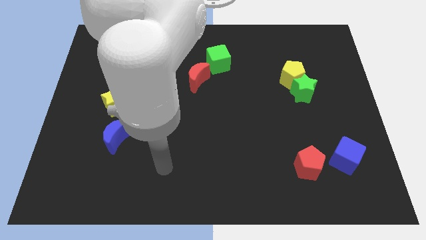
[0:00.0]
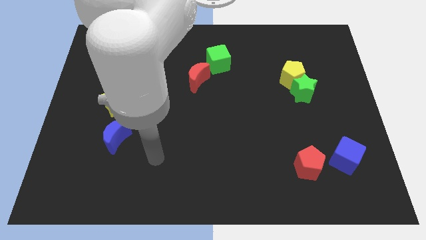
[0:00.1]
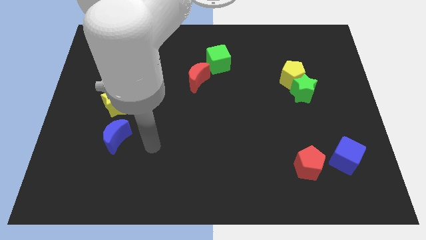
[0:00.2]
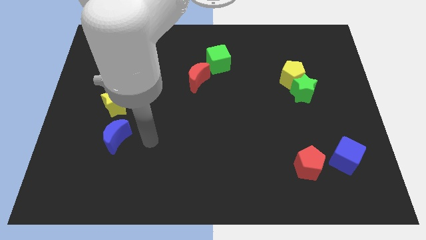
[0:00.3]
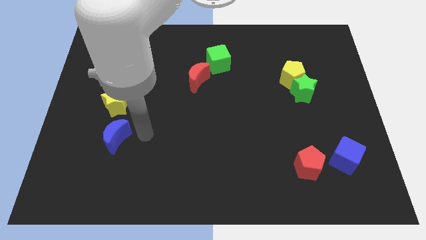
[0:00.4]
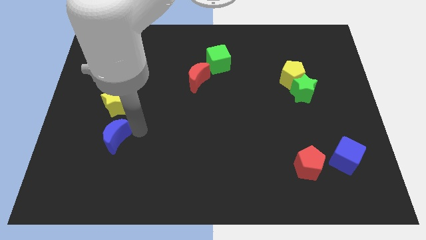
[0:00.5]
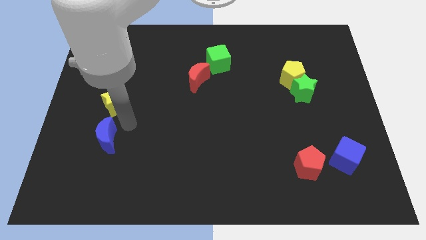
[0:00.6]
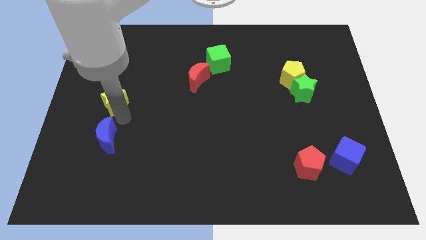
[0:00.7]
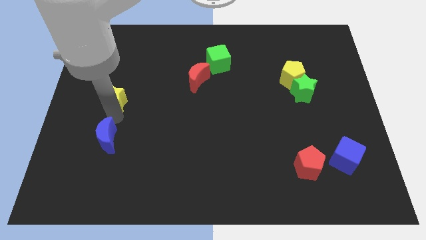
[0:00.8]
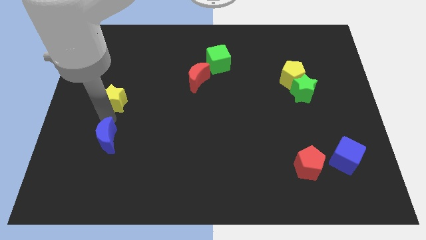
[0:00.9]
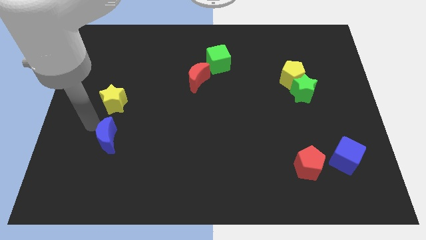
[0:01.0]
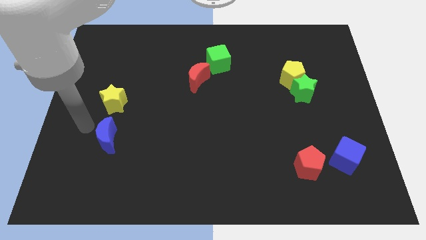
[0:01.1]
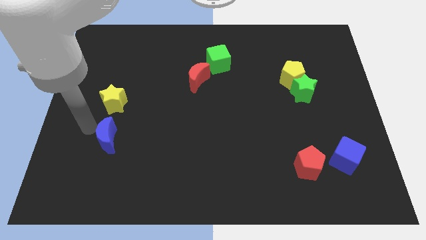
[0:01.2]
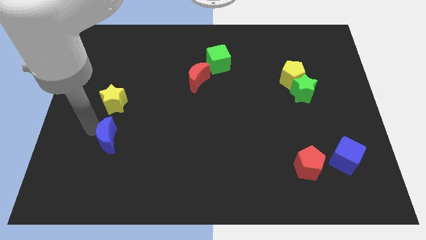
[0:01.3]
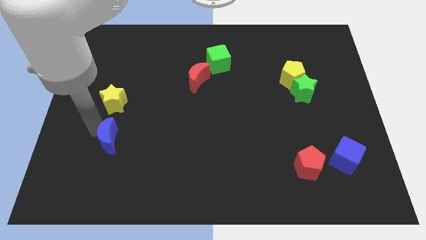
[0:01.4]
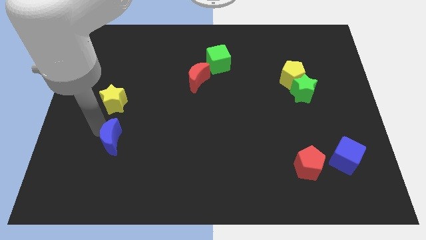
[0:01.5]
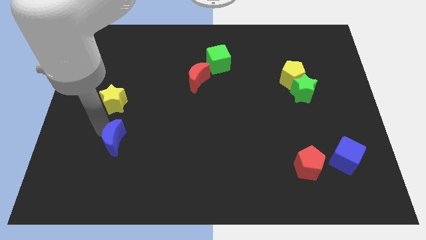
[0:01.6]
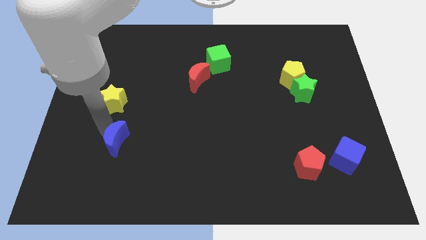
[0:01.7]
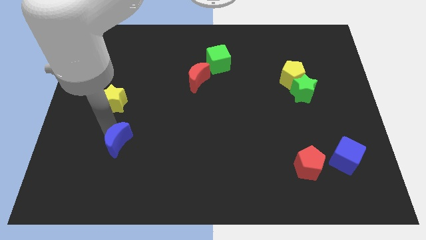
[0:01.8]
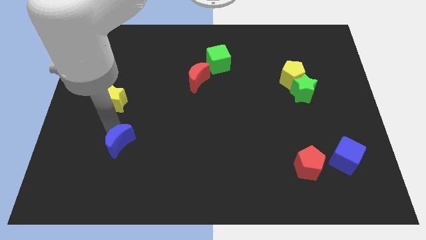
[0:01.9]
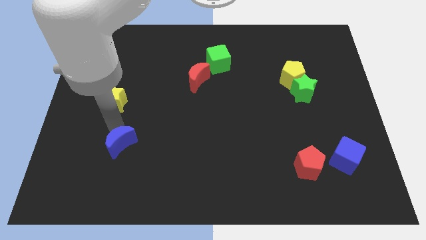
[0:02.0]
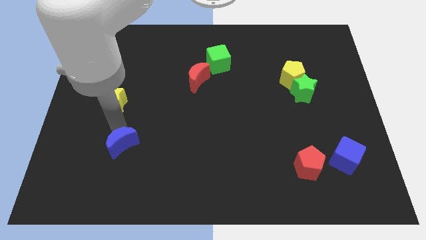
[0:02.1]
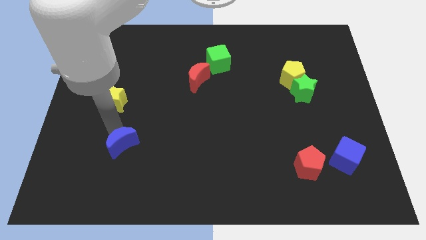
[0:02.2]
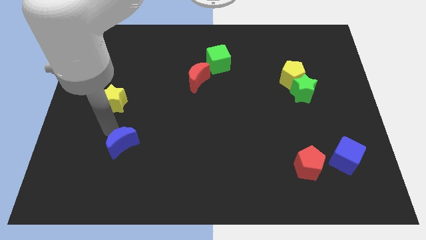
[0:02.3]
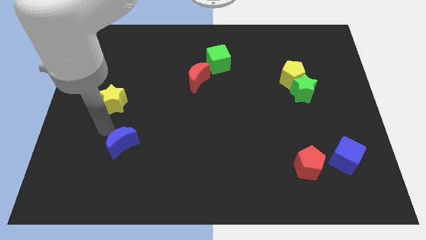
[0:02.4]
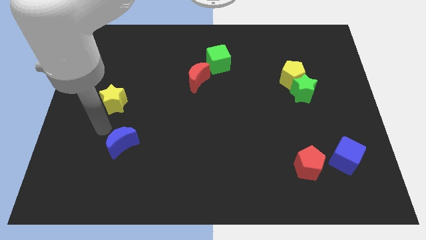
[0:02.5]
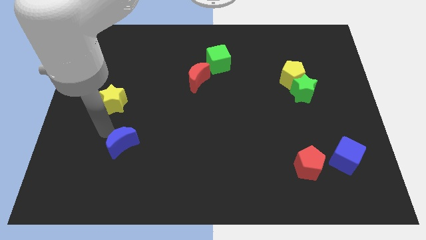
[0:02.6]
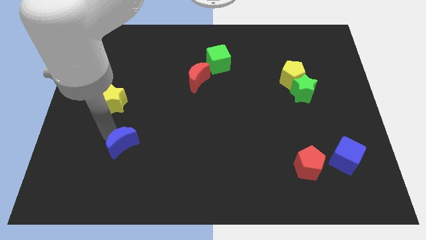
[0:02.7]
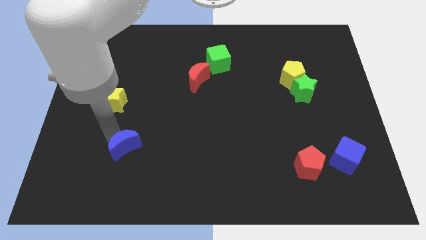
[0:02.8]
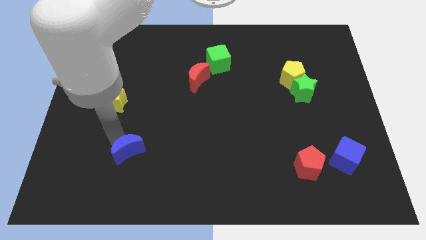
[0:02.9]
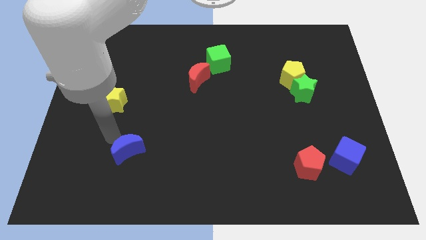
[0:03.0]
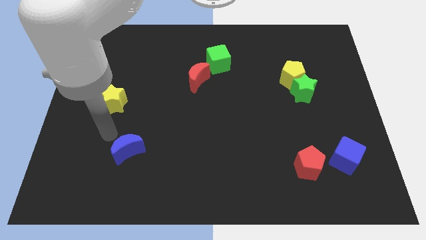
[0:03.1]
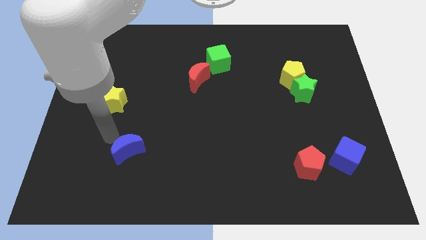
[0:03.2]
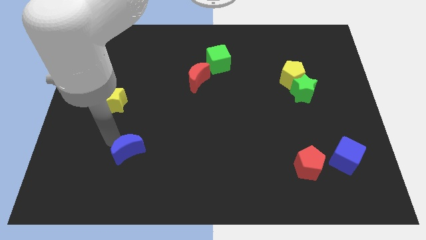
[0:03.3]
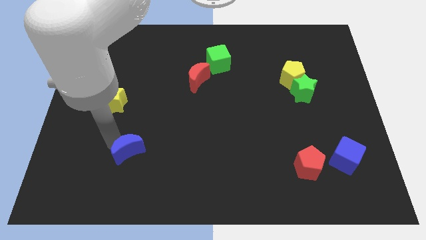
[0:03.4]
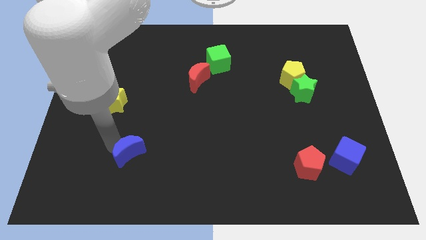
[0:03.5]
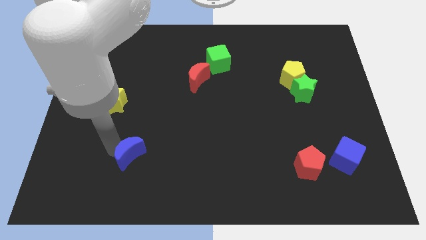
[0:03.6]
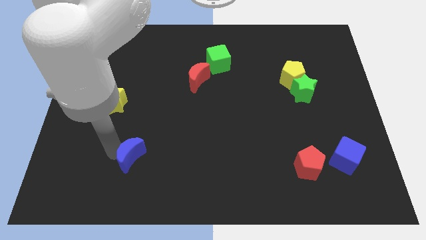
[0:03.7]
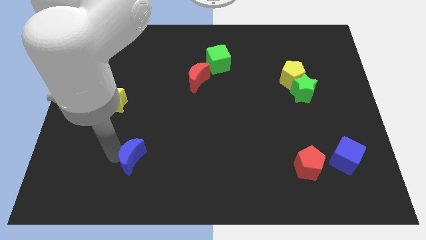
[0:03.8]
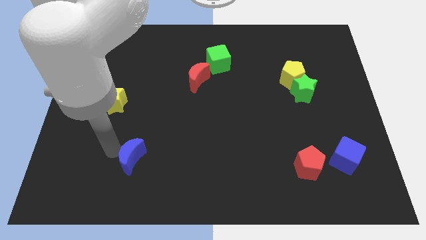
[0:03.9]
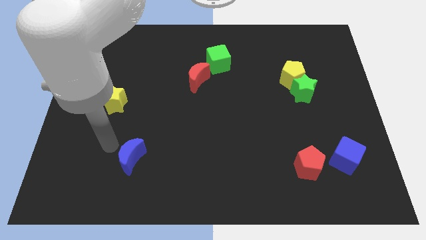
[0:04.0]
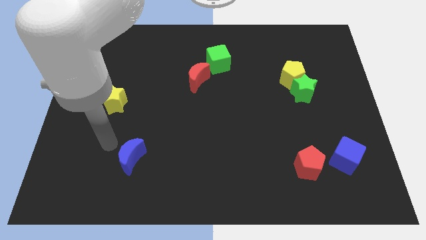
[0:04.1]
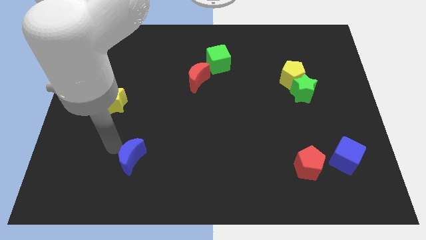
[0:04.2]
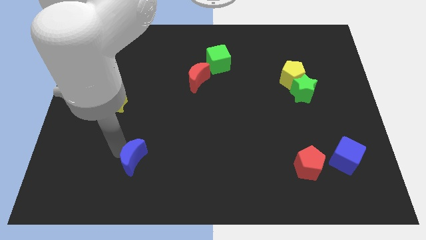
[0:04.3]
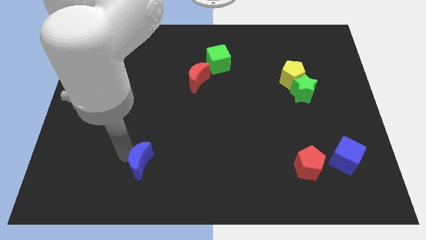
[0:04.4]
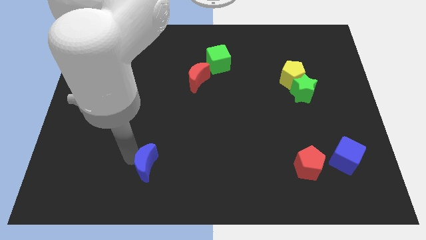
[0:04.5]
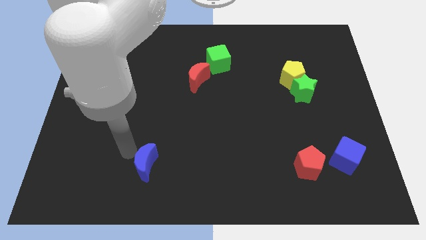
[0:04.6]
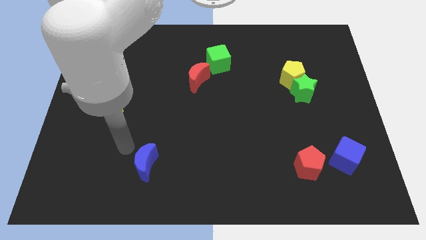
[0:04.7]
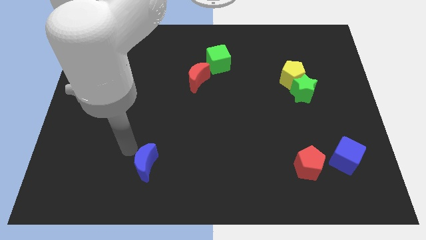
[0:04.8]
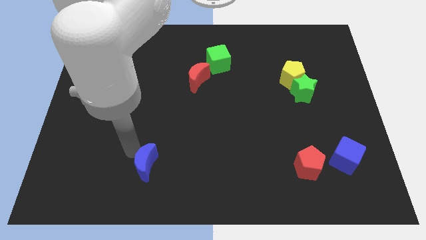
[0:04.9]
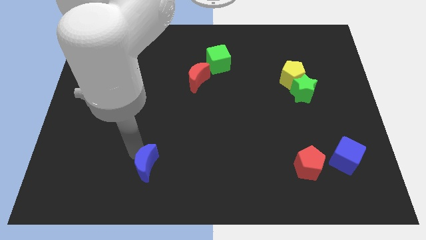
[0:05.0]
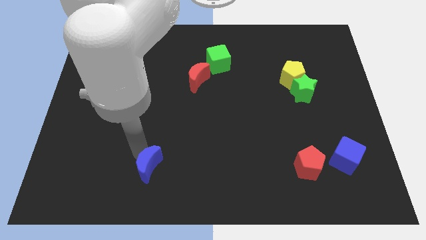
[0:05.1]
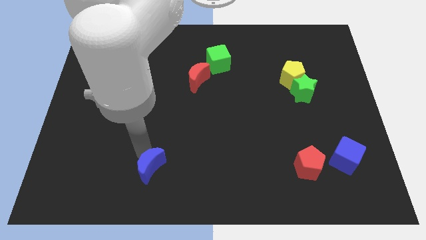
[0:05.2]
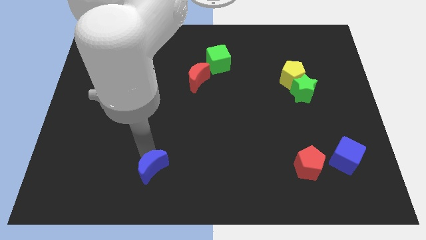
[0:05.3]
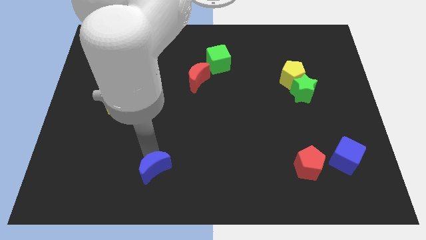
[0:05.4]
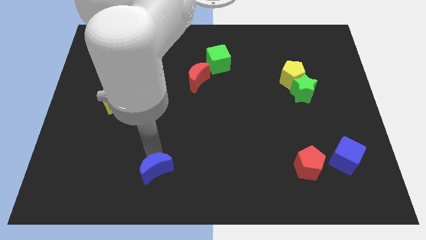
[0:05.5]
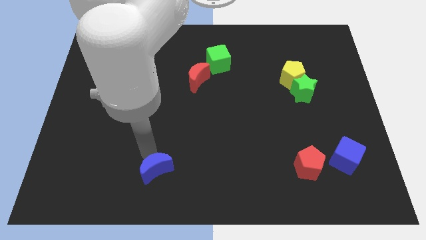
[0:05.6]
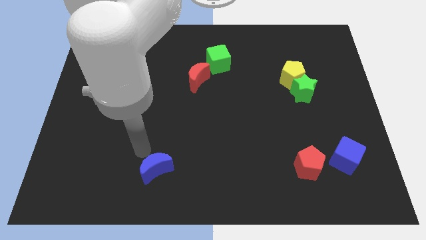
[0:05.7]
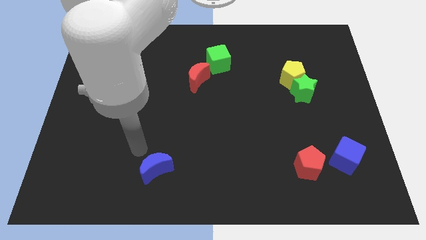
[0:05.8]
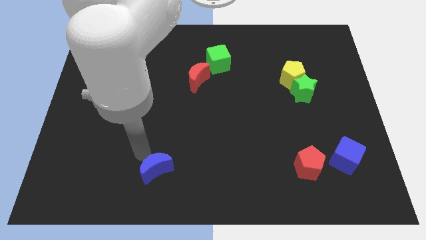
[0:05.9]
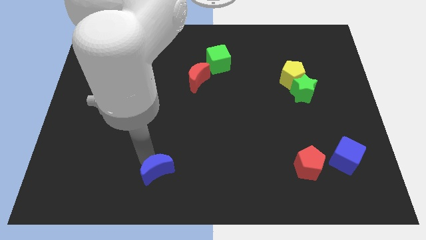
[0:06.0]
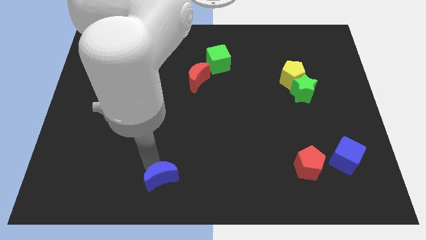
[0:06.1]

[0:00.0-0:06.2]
move the blue moon to the bottom side
